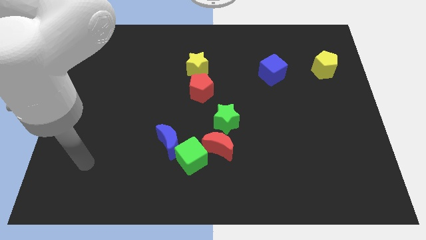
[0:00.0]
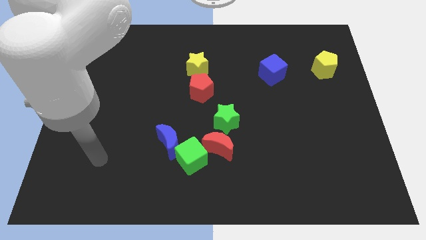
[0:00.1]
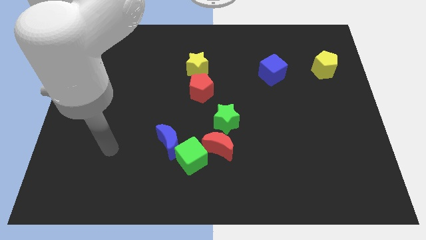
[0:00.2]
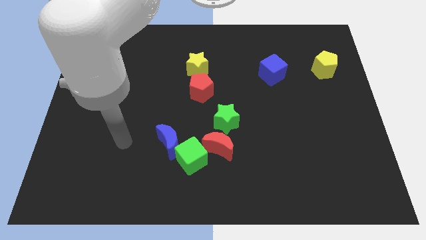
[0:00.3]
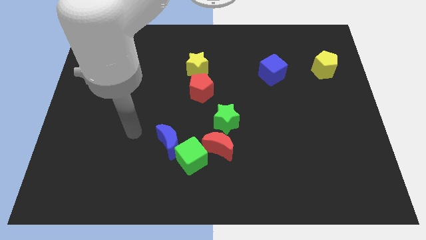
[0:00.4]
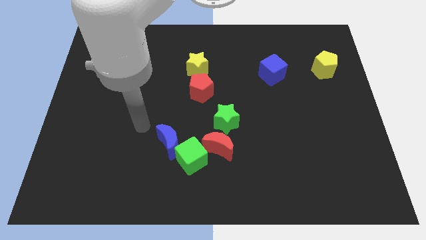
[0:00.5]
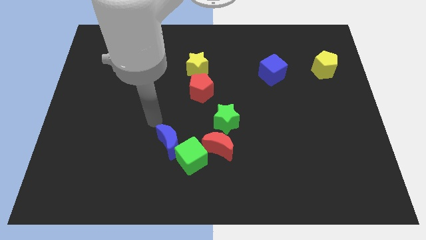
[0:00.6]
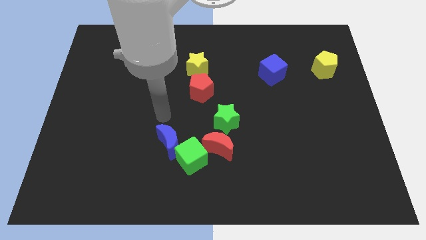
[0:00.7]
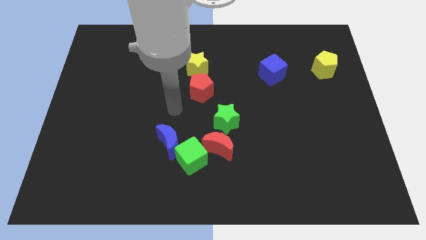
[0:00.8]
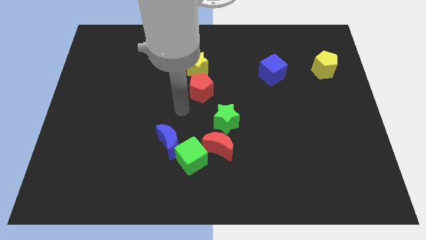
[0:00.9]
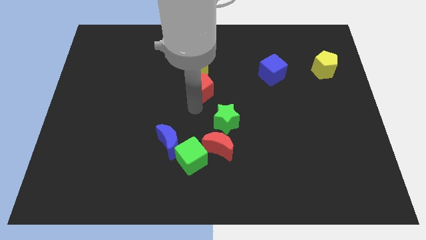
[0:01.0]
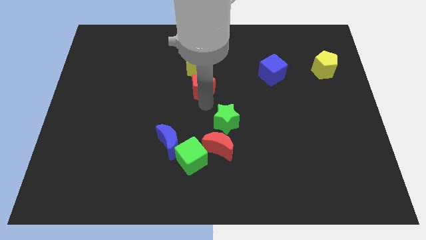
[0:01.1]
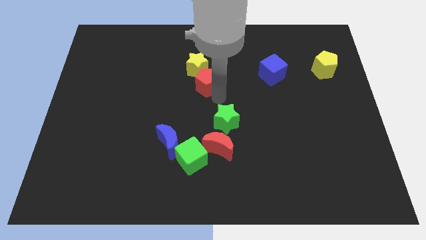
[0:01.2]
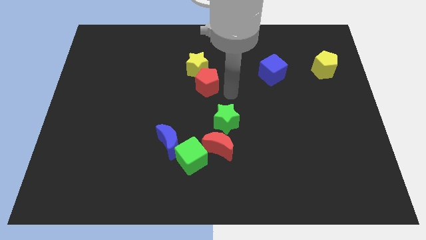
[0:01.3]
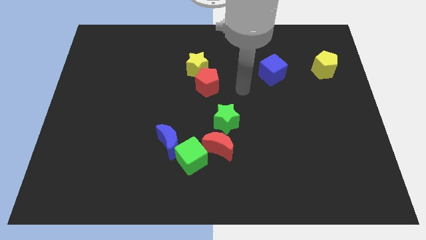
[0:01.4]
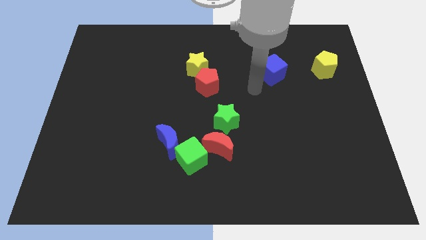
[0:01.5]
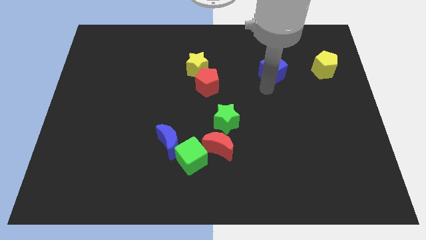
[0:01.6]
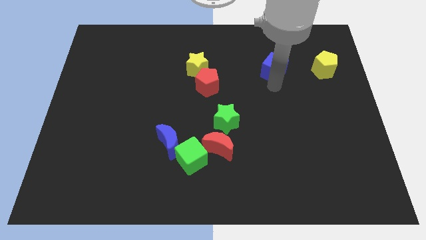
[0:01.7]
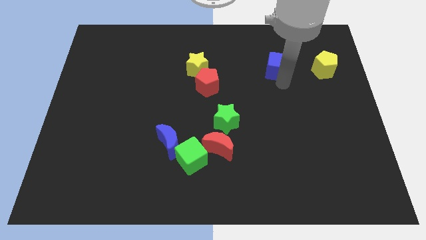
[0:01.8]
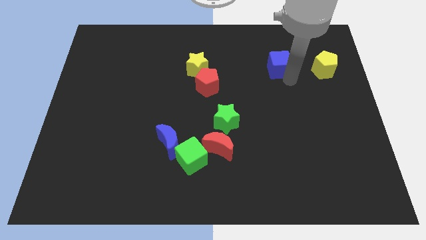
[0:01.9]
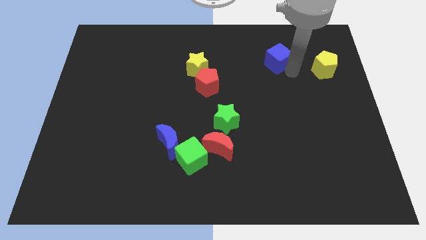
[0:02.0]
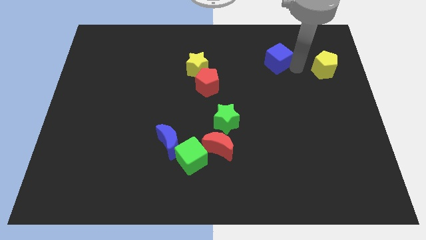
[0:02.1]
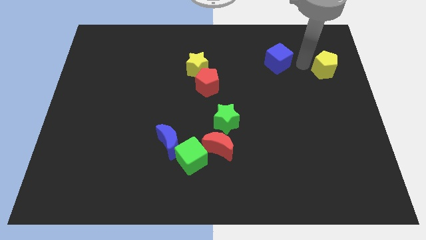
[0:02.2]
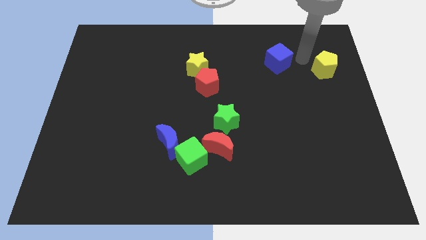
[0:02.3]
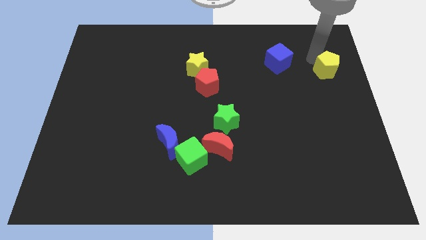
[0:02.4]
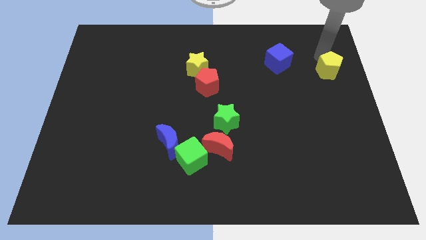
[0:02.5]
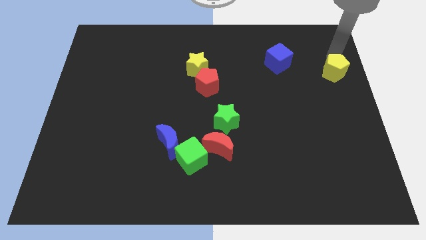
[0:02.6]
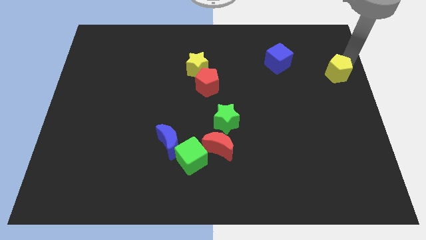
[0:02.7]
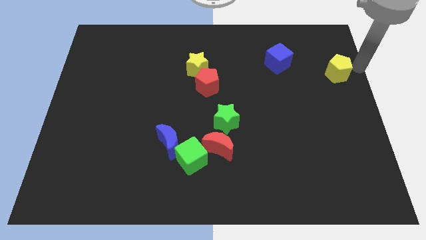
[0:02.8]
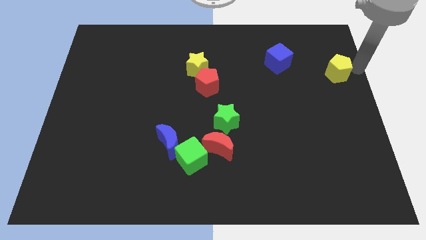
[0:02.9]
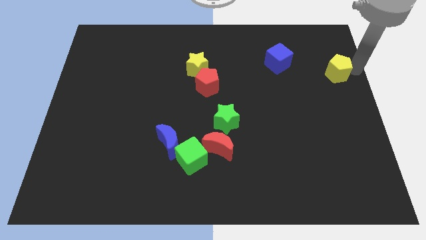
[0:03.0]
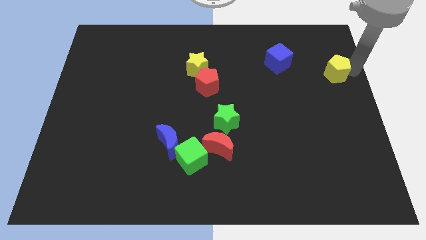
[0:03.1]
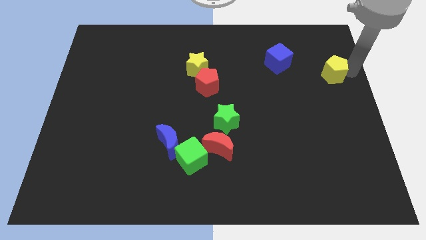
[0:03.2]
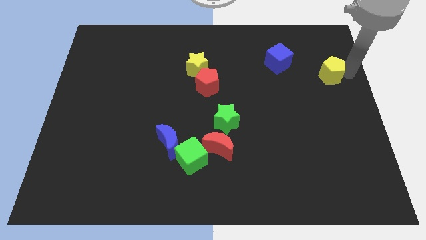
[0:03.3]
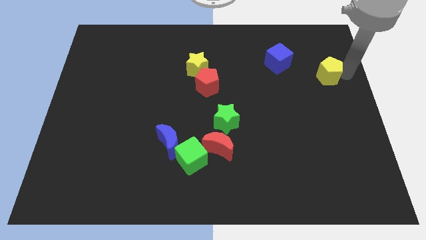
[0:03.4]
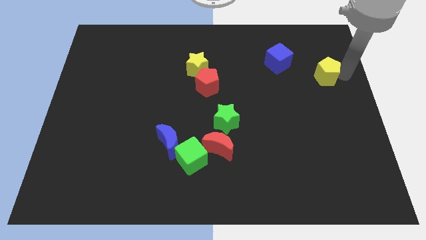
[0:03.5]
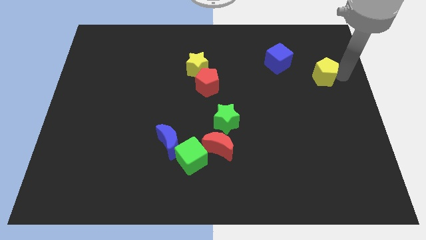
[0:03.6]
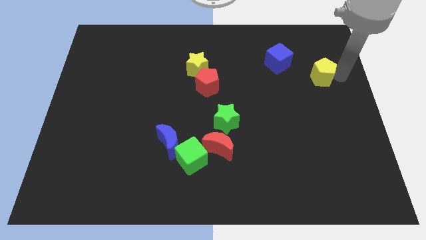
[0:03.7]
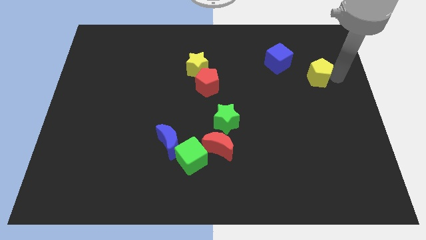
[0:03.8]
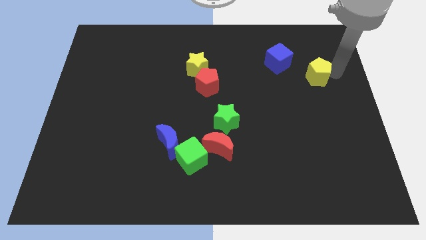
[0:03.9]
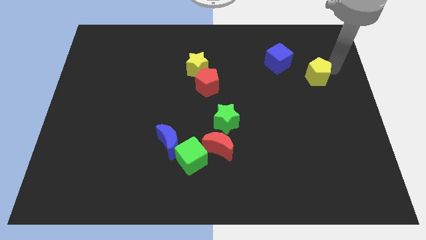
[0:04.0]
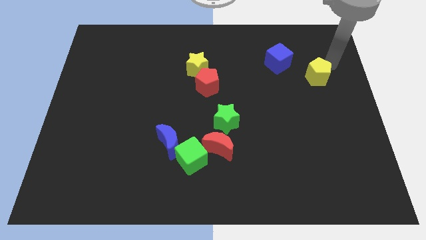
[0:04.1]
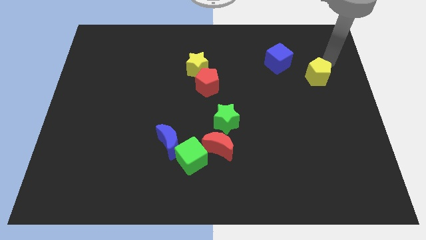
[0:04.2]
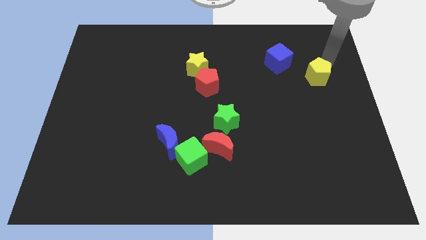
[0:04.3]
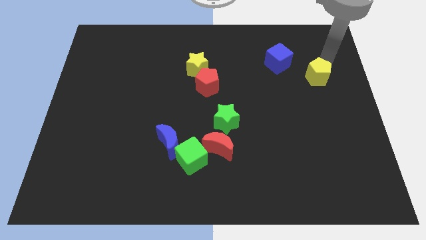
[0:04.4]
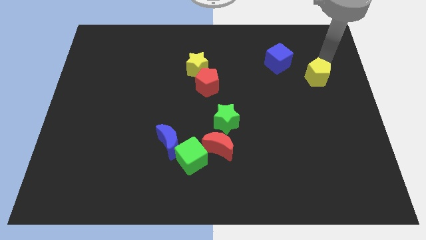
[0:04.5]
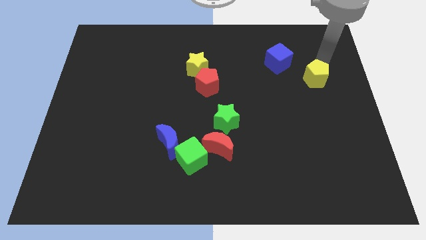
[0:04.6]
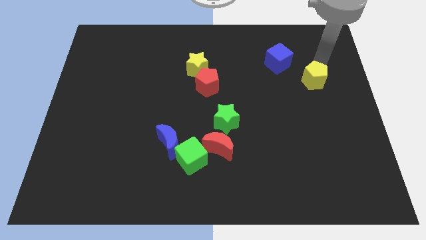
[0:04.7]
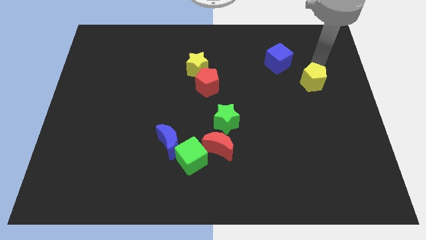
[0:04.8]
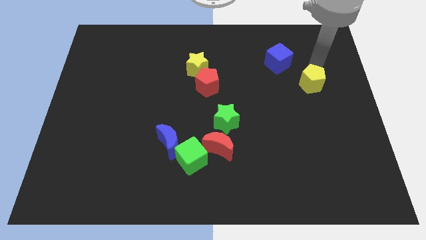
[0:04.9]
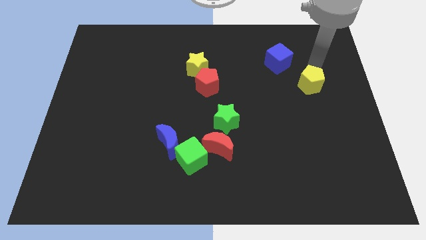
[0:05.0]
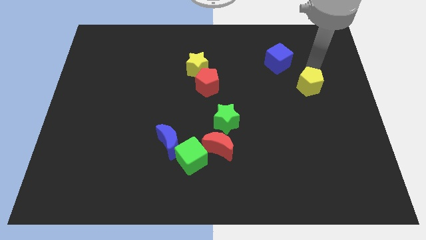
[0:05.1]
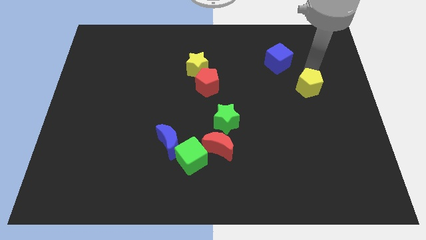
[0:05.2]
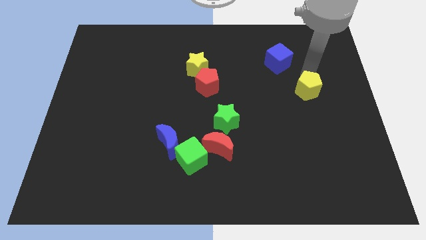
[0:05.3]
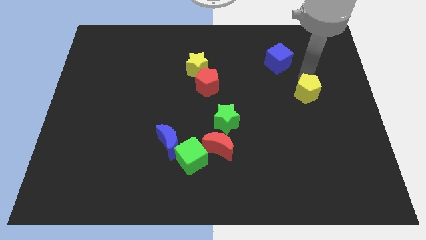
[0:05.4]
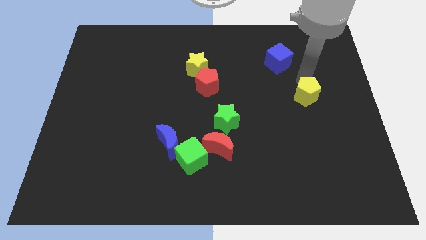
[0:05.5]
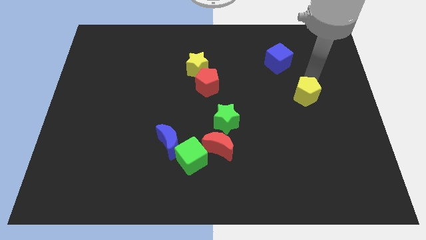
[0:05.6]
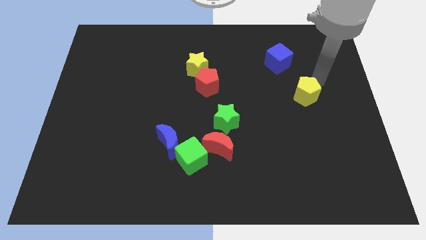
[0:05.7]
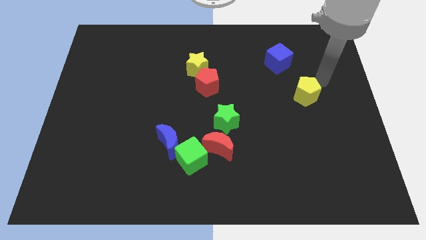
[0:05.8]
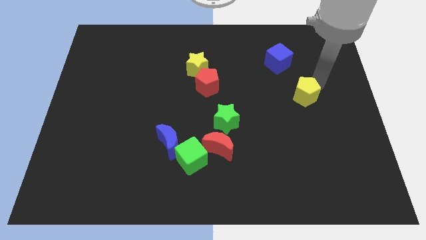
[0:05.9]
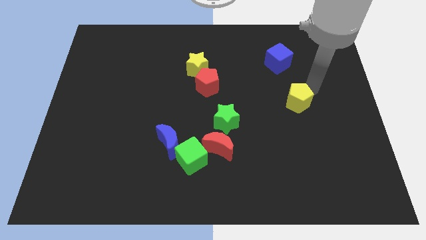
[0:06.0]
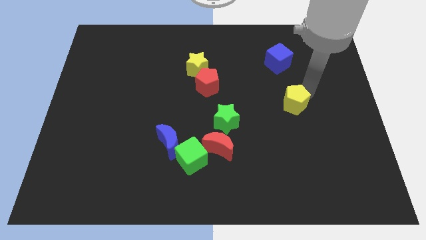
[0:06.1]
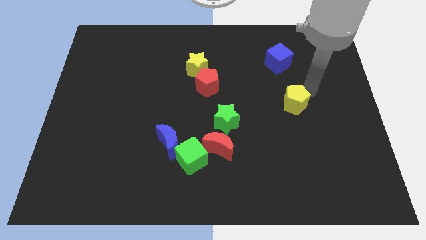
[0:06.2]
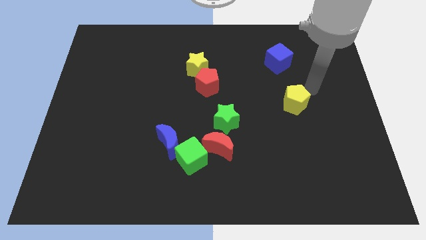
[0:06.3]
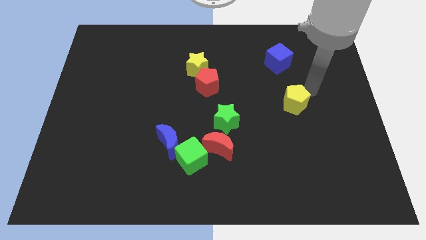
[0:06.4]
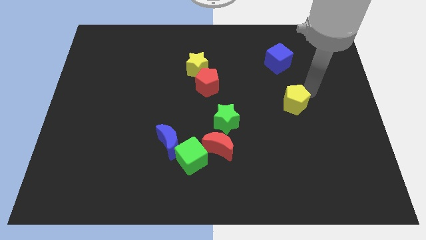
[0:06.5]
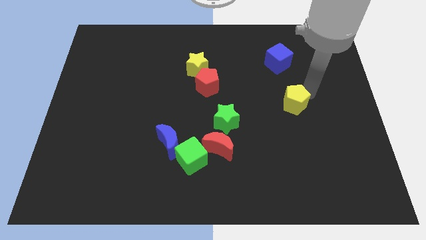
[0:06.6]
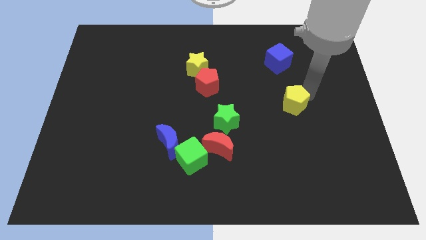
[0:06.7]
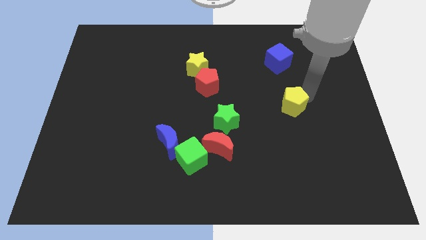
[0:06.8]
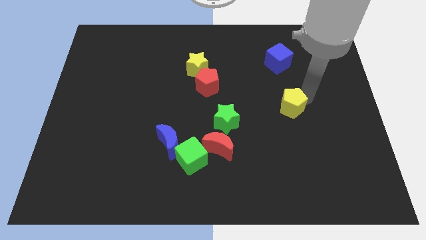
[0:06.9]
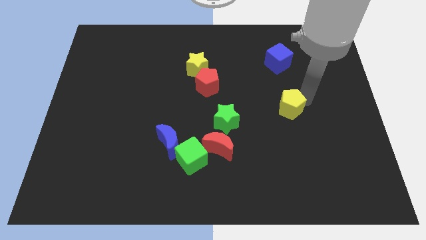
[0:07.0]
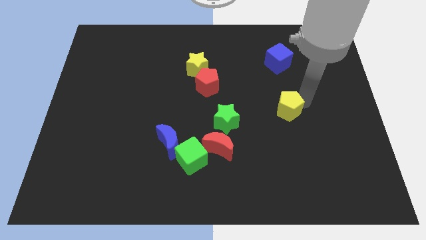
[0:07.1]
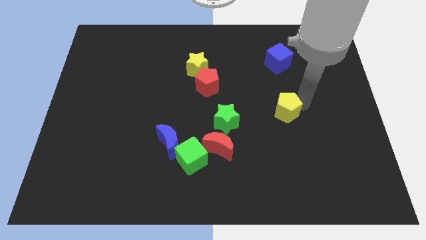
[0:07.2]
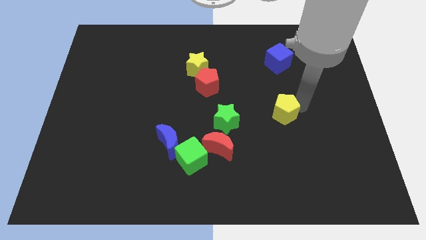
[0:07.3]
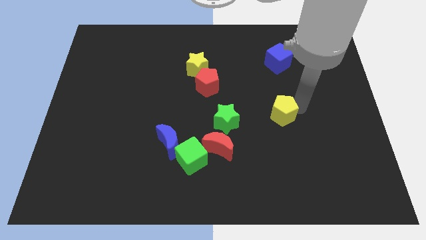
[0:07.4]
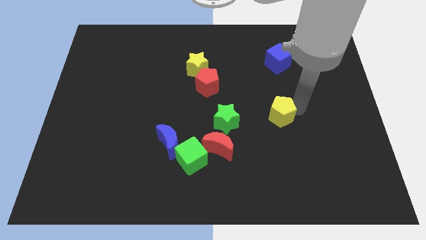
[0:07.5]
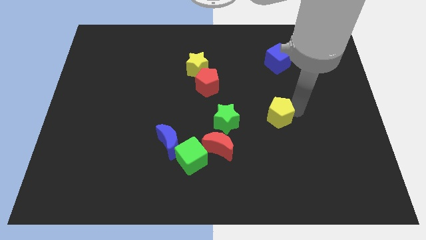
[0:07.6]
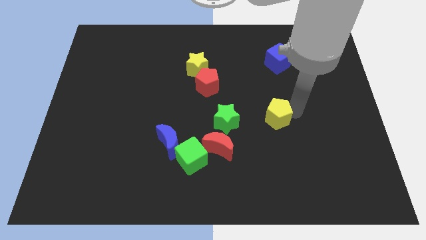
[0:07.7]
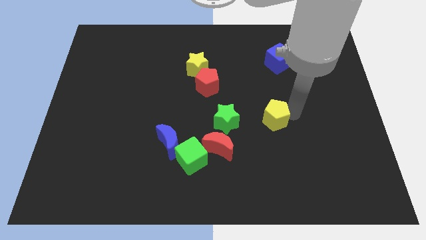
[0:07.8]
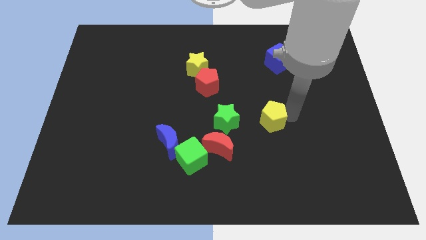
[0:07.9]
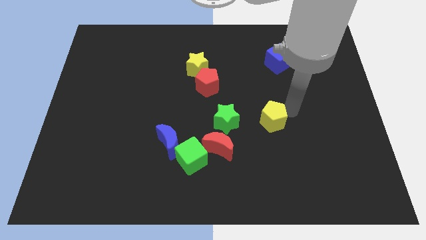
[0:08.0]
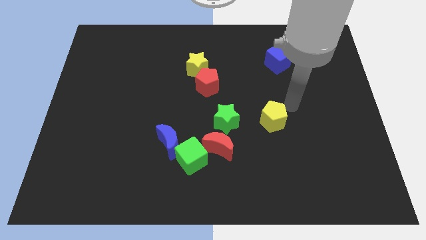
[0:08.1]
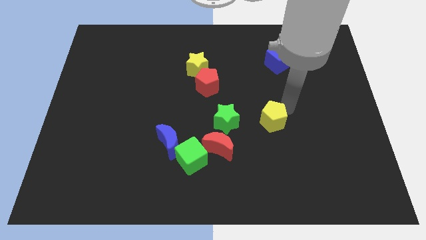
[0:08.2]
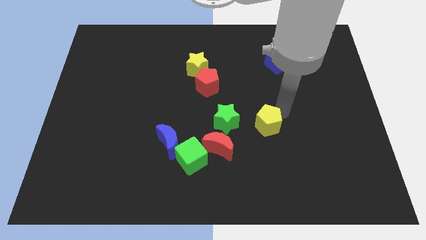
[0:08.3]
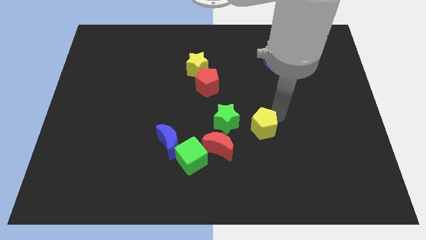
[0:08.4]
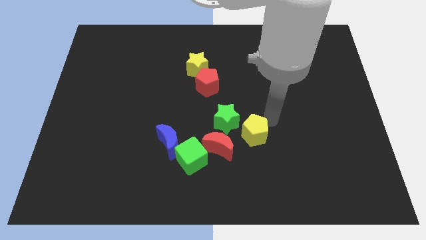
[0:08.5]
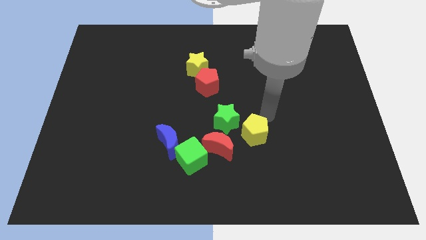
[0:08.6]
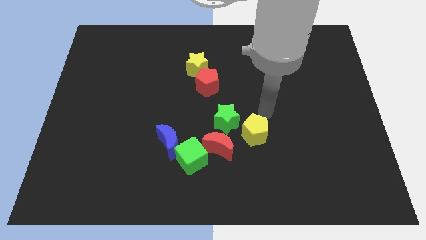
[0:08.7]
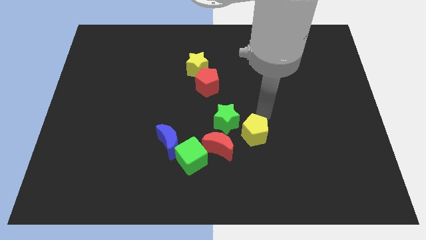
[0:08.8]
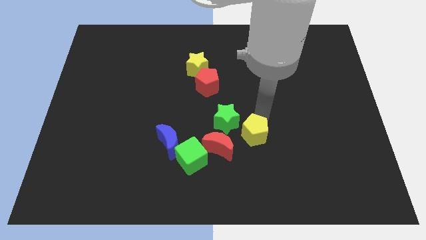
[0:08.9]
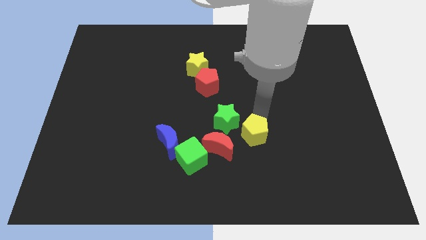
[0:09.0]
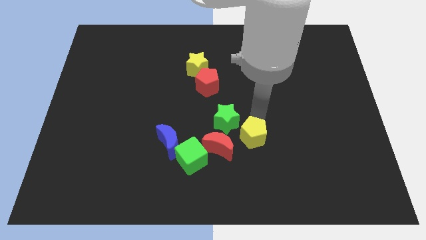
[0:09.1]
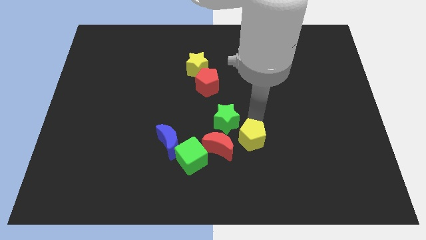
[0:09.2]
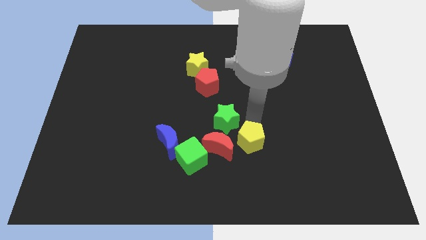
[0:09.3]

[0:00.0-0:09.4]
put the yellow pentagon right of the green cube
